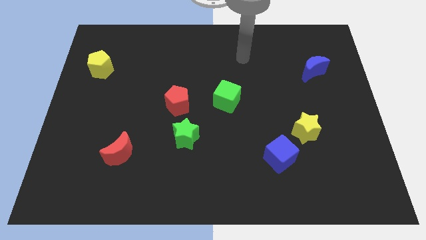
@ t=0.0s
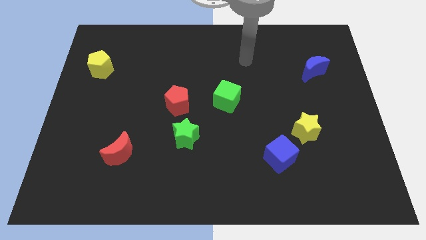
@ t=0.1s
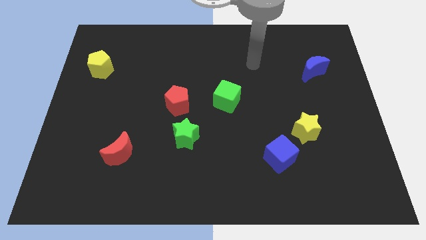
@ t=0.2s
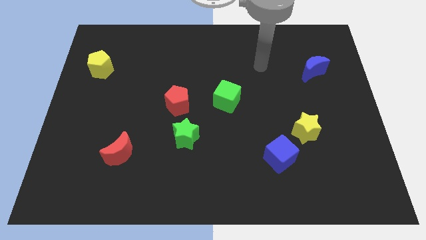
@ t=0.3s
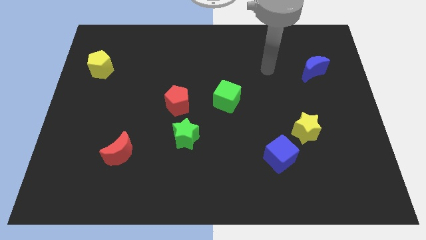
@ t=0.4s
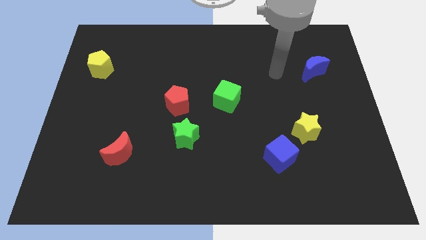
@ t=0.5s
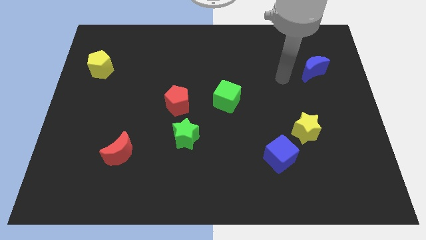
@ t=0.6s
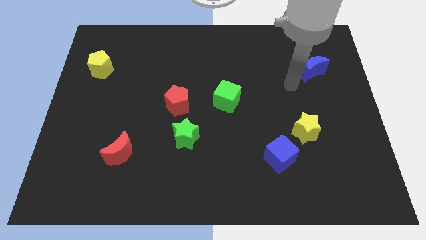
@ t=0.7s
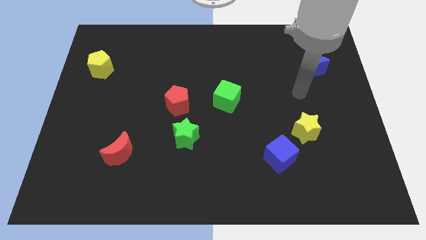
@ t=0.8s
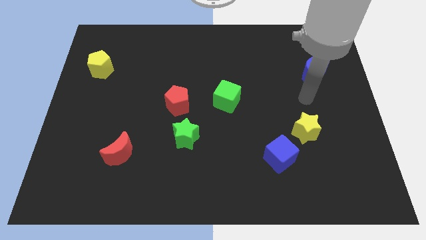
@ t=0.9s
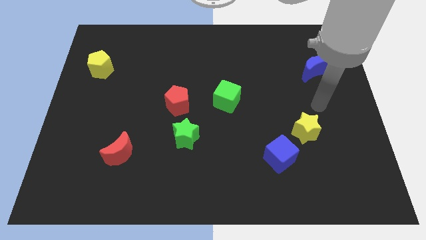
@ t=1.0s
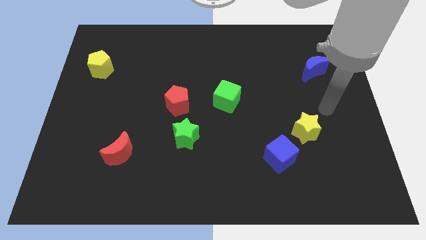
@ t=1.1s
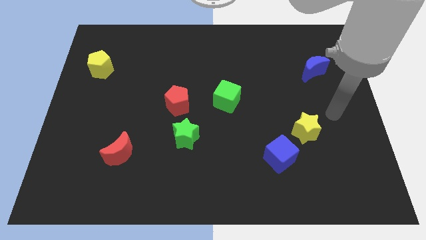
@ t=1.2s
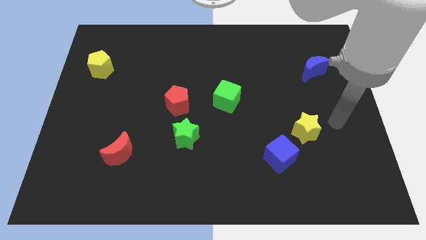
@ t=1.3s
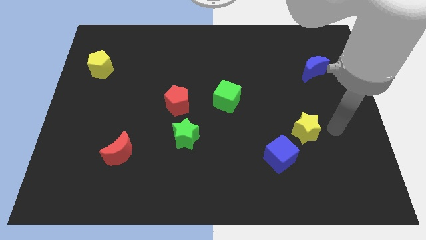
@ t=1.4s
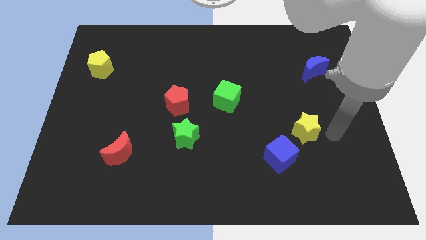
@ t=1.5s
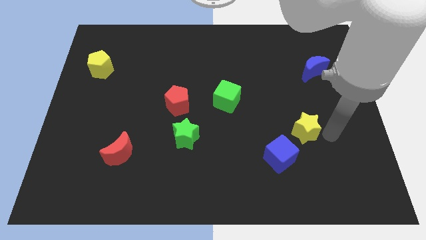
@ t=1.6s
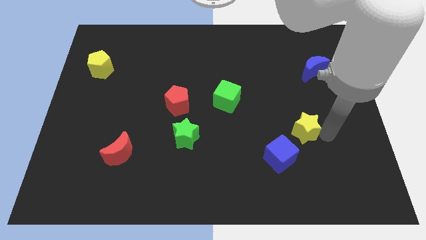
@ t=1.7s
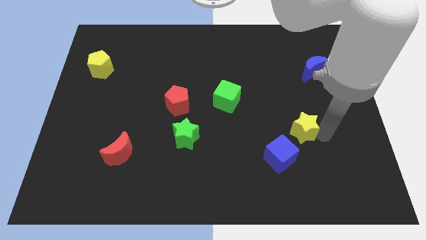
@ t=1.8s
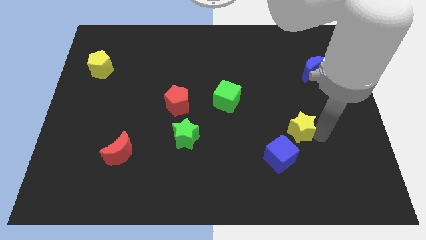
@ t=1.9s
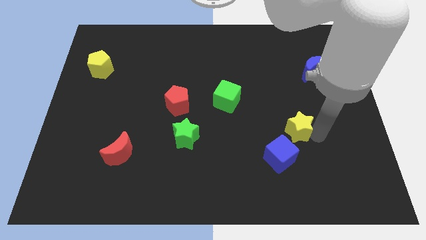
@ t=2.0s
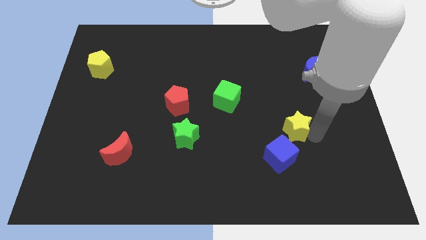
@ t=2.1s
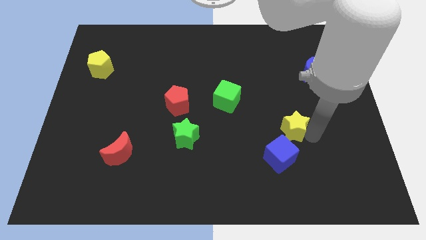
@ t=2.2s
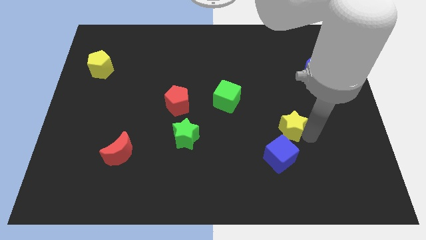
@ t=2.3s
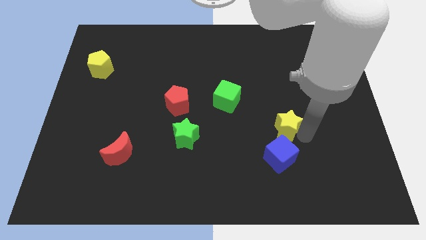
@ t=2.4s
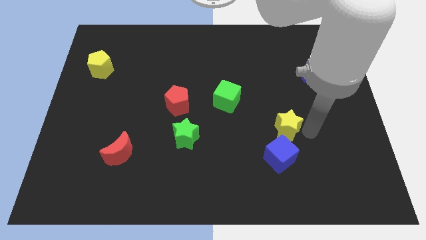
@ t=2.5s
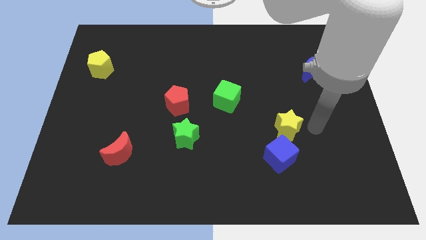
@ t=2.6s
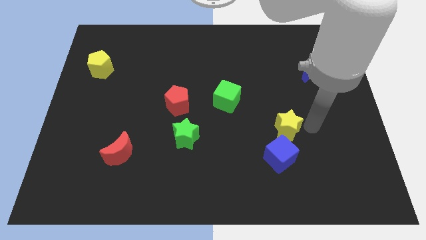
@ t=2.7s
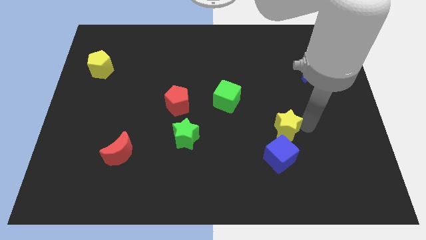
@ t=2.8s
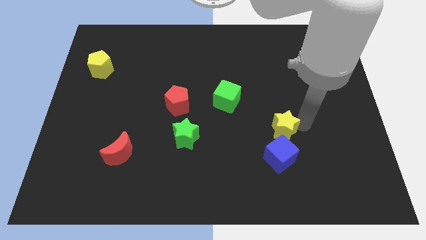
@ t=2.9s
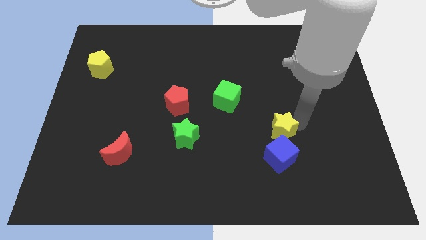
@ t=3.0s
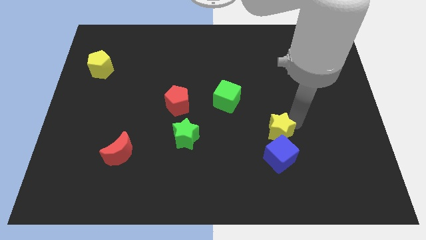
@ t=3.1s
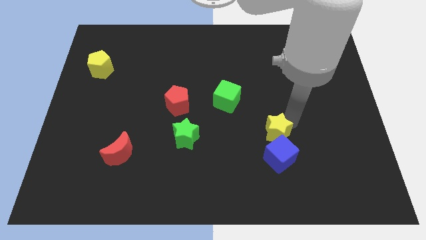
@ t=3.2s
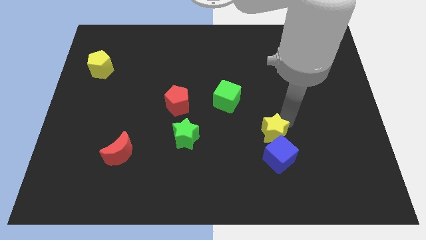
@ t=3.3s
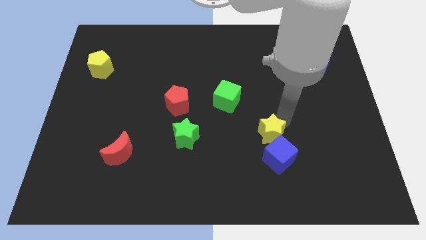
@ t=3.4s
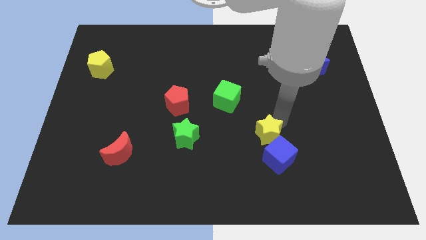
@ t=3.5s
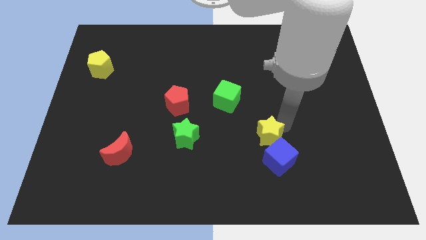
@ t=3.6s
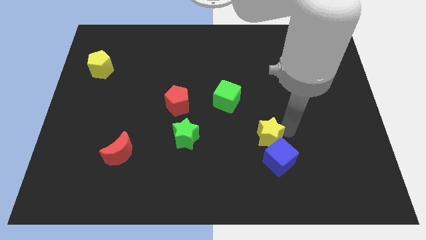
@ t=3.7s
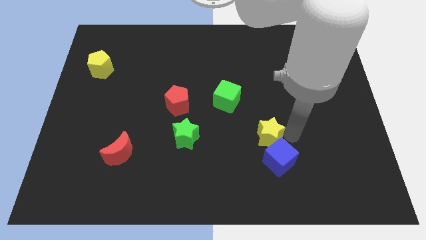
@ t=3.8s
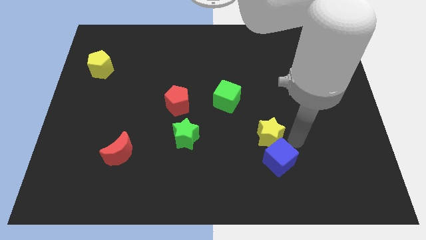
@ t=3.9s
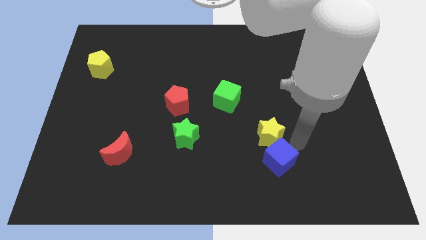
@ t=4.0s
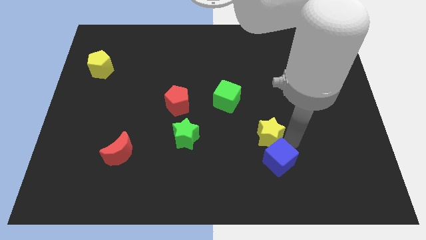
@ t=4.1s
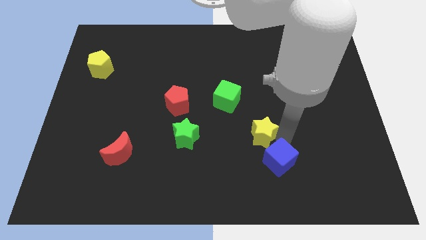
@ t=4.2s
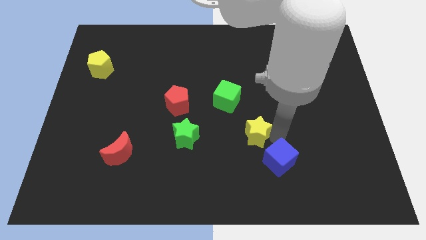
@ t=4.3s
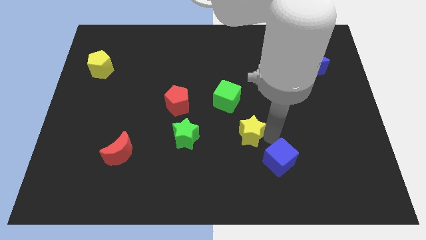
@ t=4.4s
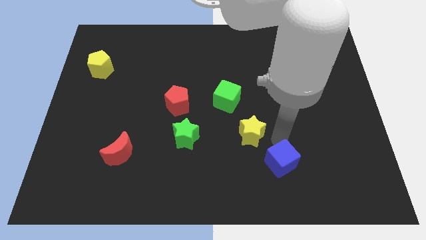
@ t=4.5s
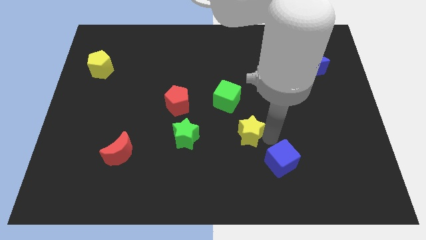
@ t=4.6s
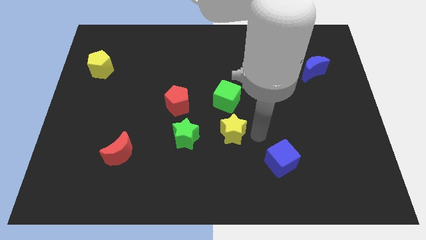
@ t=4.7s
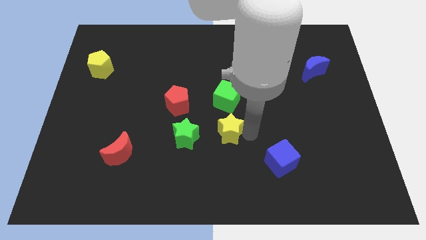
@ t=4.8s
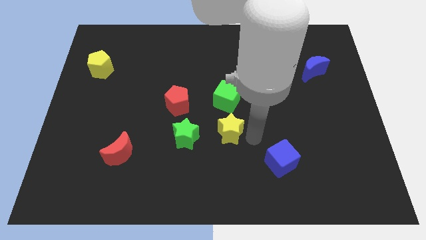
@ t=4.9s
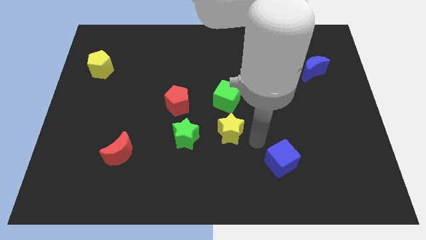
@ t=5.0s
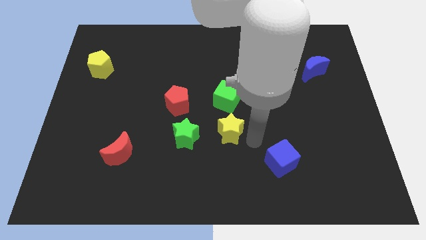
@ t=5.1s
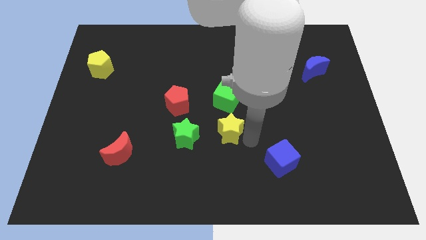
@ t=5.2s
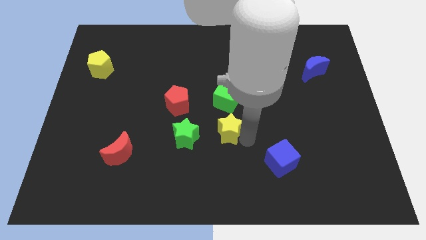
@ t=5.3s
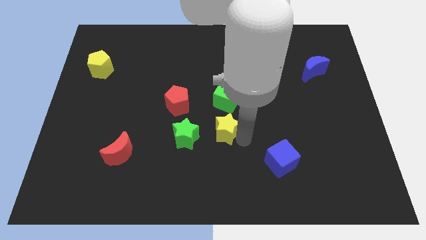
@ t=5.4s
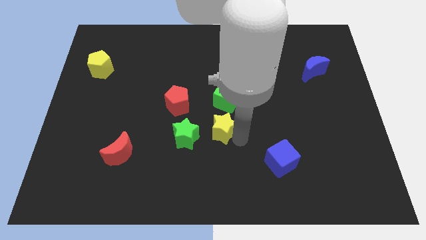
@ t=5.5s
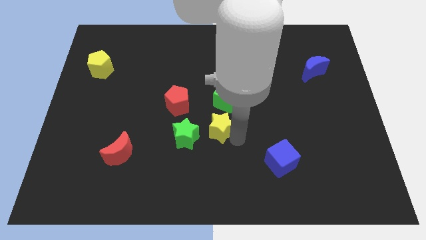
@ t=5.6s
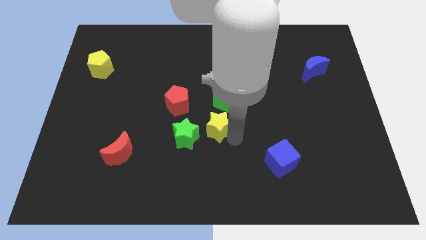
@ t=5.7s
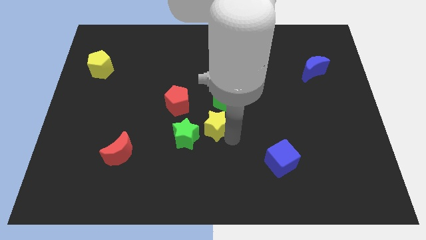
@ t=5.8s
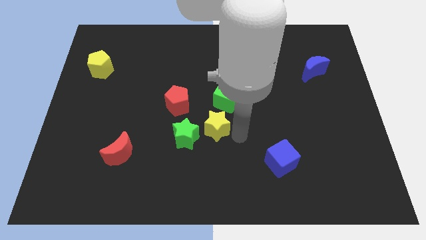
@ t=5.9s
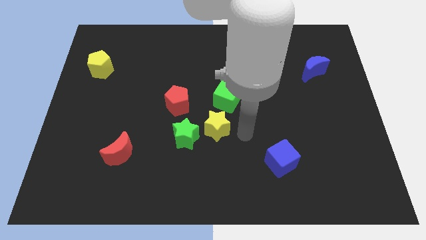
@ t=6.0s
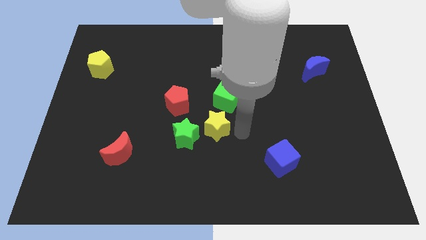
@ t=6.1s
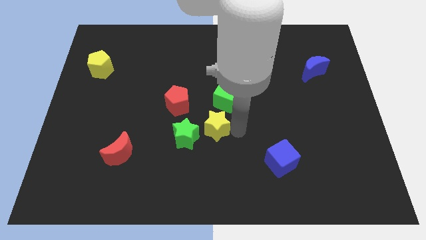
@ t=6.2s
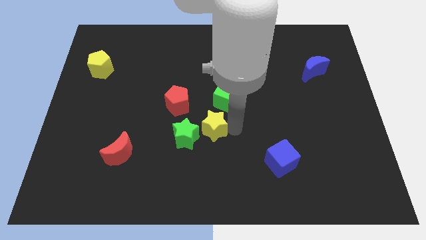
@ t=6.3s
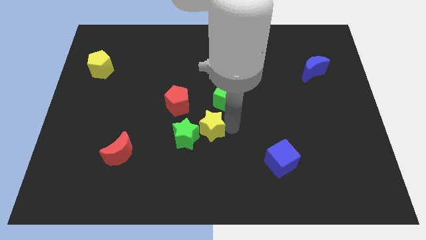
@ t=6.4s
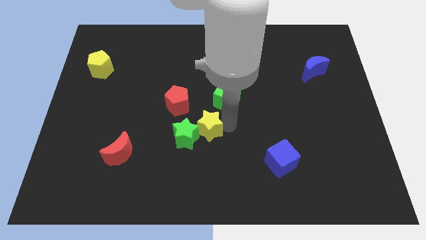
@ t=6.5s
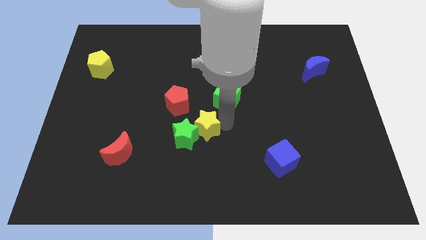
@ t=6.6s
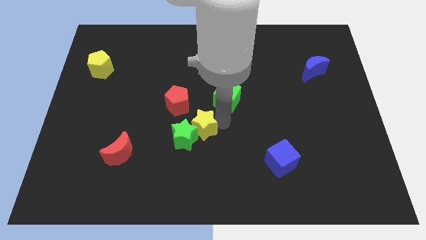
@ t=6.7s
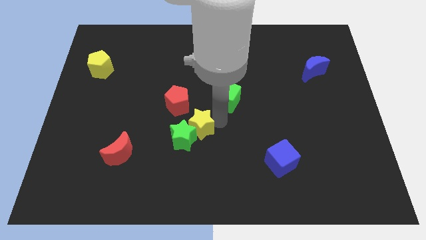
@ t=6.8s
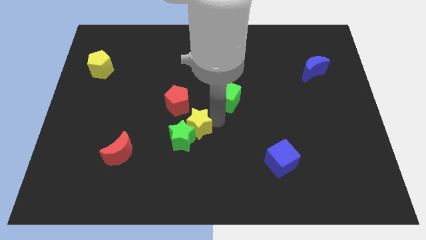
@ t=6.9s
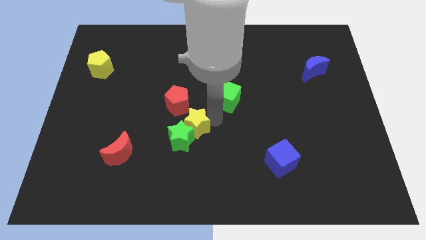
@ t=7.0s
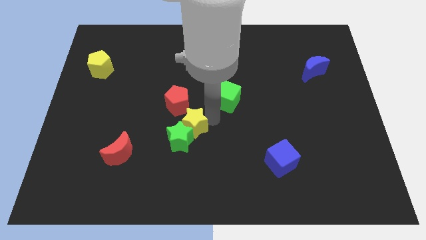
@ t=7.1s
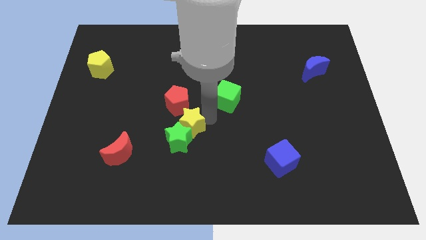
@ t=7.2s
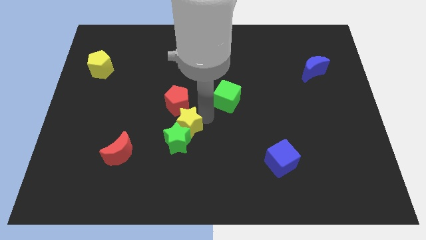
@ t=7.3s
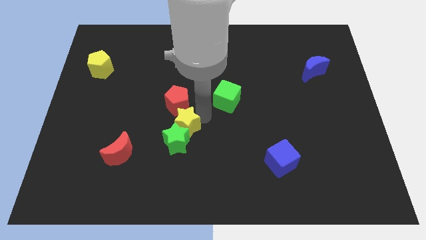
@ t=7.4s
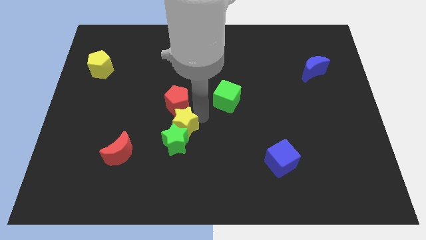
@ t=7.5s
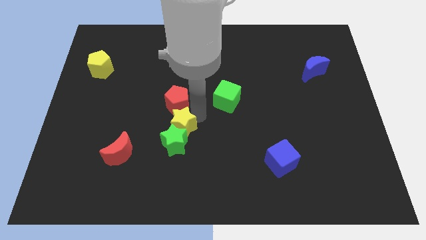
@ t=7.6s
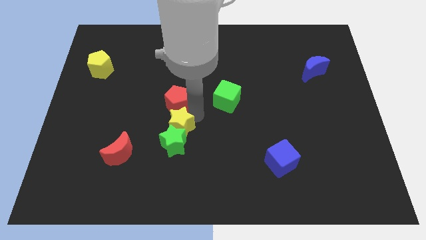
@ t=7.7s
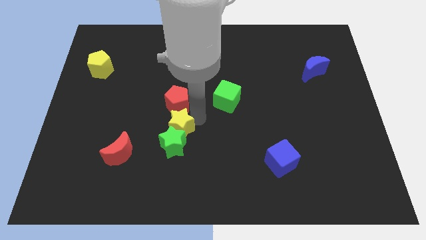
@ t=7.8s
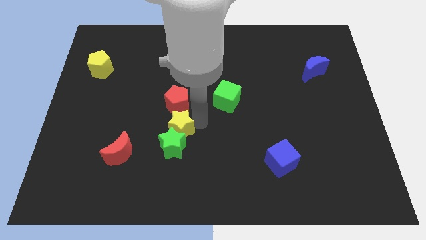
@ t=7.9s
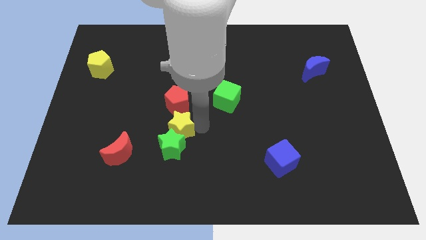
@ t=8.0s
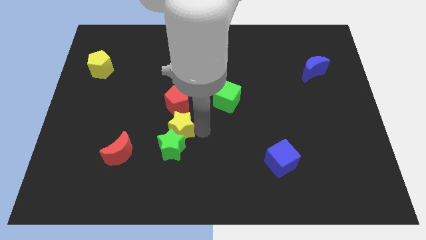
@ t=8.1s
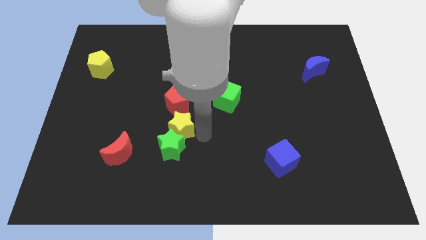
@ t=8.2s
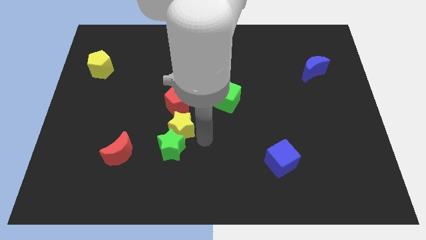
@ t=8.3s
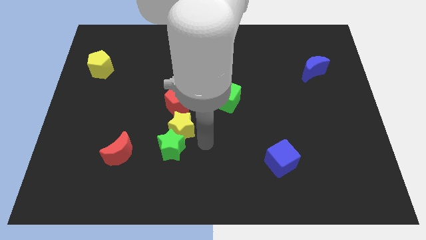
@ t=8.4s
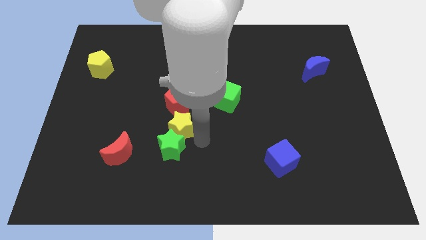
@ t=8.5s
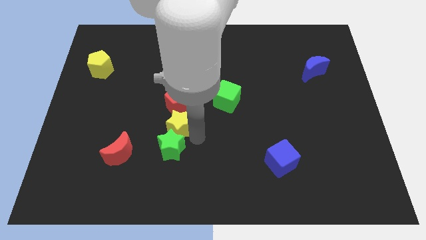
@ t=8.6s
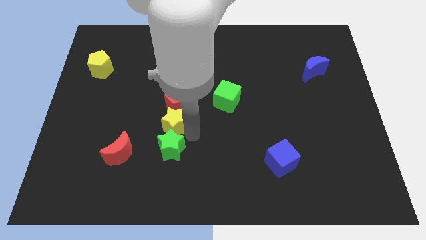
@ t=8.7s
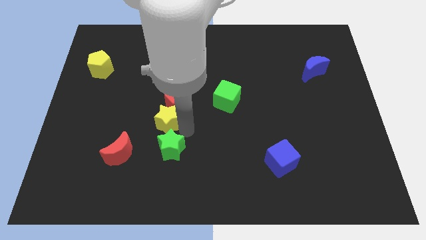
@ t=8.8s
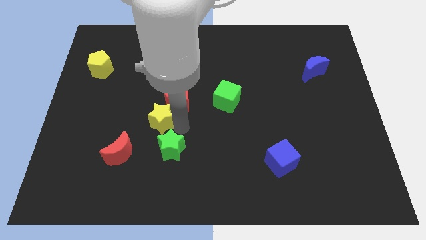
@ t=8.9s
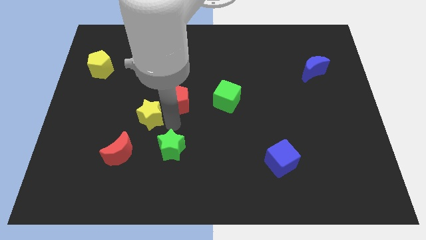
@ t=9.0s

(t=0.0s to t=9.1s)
move the yellow star to the left side of the red pentagon
